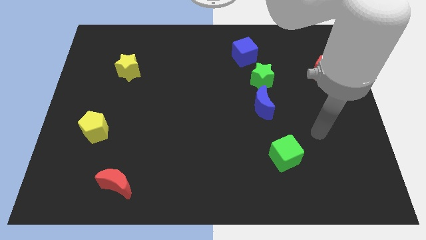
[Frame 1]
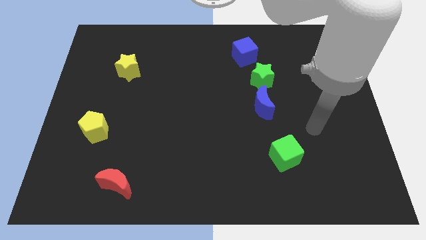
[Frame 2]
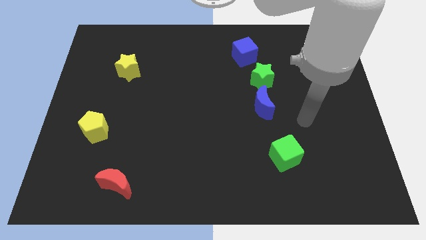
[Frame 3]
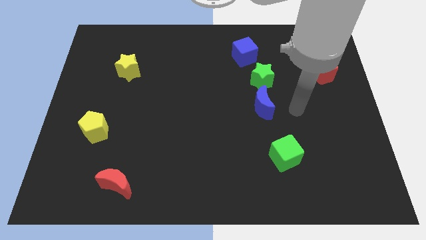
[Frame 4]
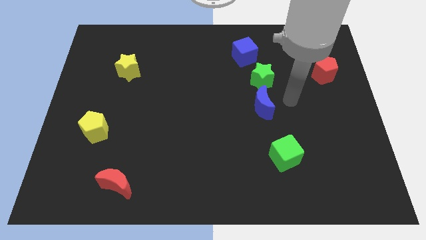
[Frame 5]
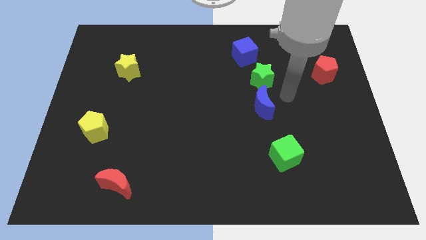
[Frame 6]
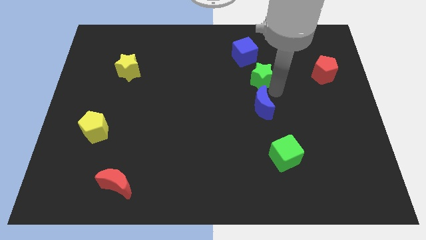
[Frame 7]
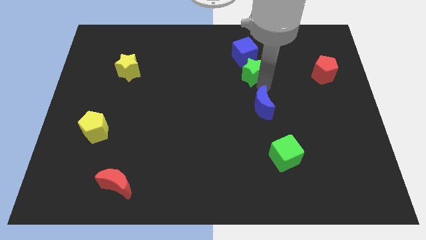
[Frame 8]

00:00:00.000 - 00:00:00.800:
separate the blue moon from the green star

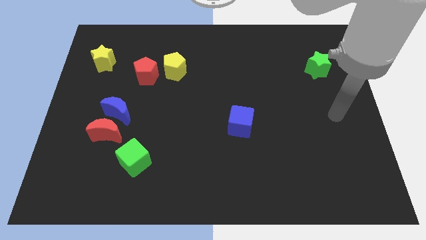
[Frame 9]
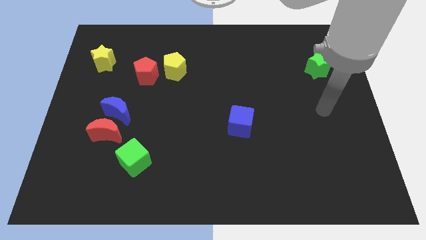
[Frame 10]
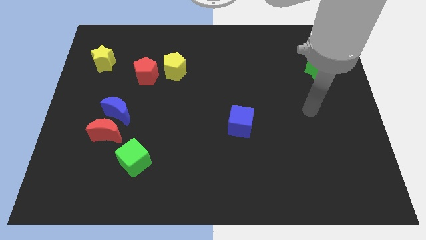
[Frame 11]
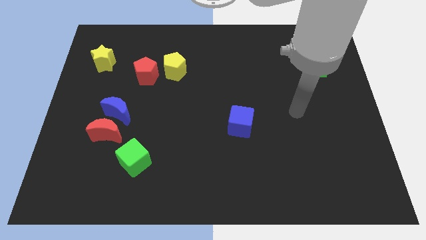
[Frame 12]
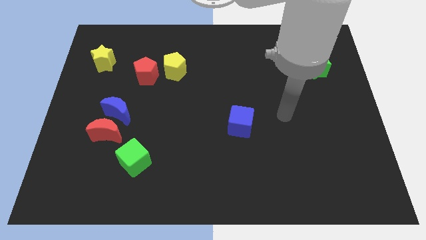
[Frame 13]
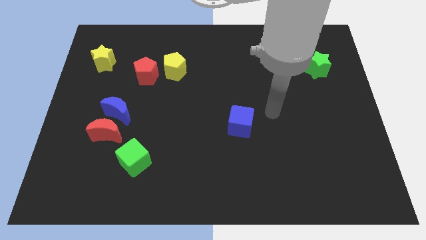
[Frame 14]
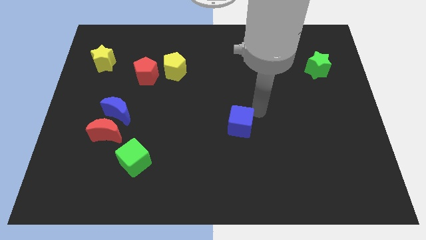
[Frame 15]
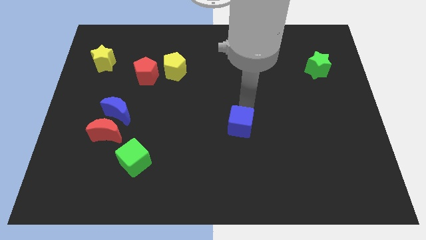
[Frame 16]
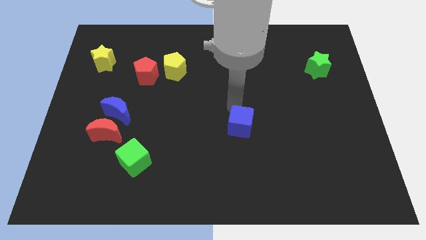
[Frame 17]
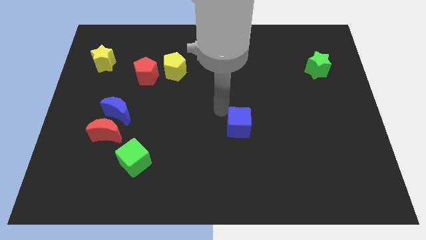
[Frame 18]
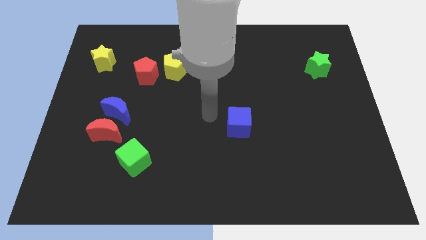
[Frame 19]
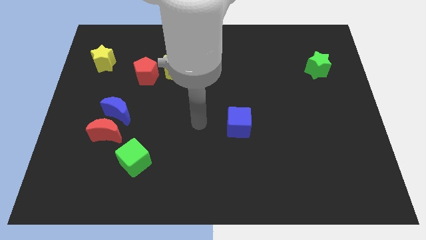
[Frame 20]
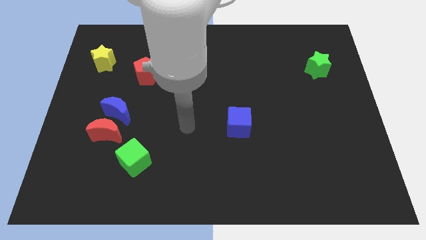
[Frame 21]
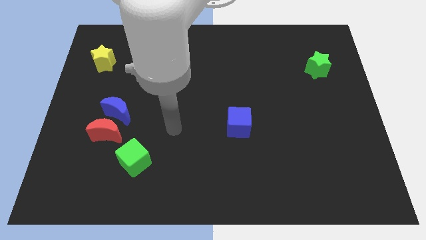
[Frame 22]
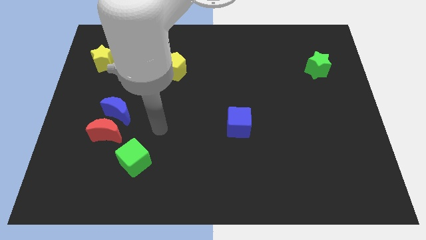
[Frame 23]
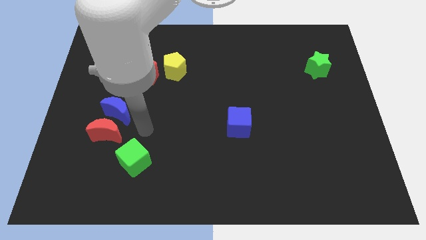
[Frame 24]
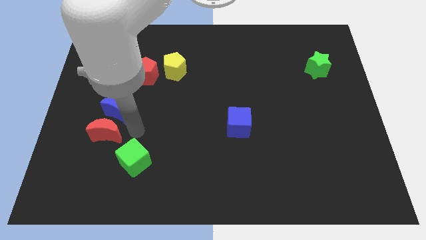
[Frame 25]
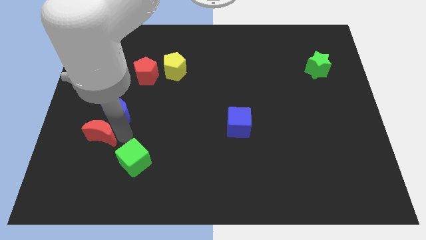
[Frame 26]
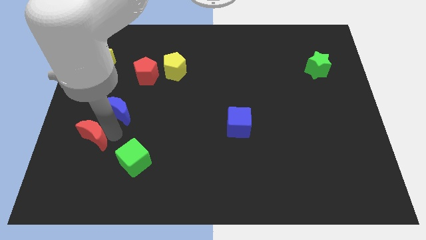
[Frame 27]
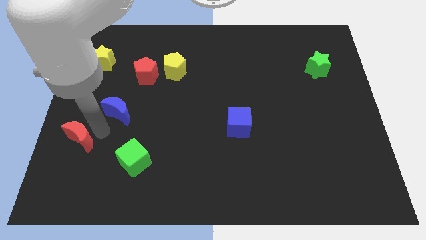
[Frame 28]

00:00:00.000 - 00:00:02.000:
pull the blue moon apart from the red moon

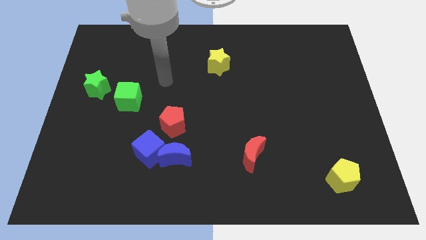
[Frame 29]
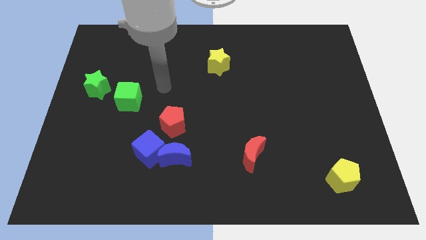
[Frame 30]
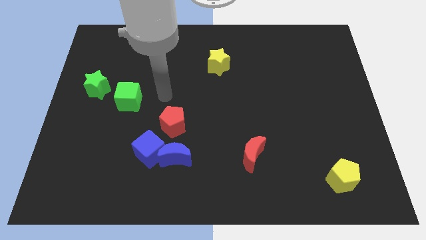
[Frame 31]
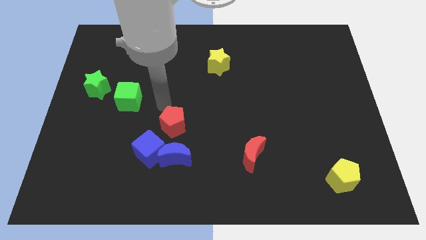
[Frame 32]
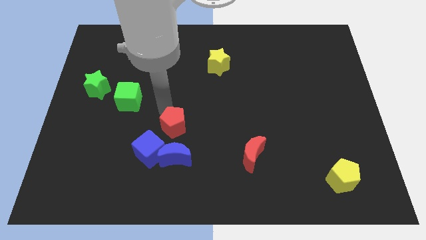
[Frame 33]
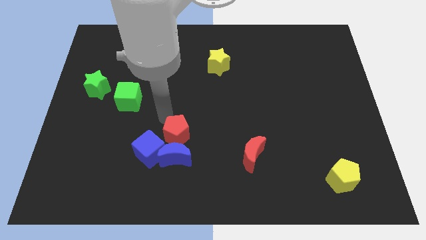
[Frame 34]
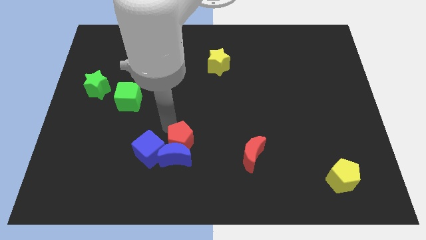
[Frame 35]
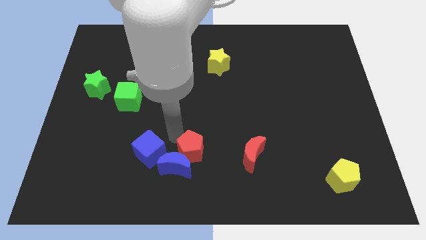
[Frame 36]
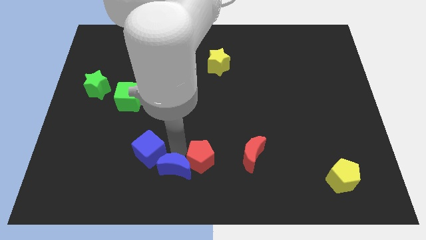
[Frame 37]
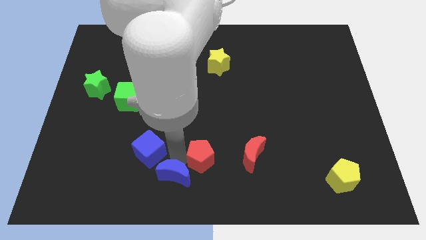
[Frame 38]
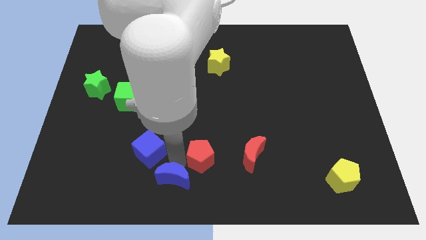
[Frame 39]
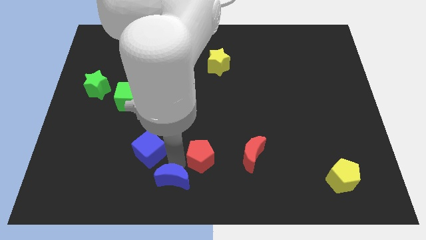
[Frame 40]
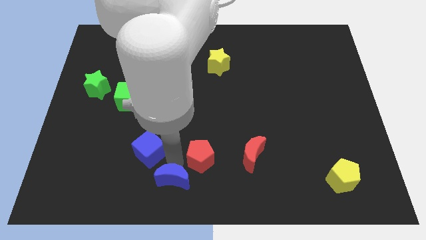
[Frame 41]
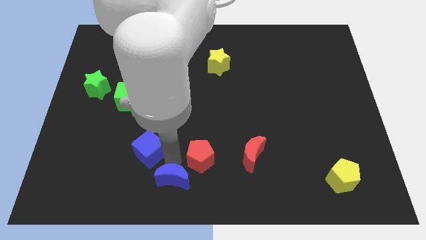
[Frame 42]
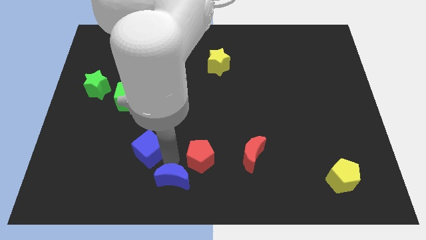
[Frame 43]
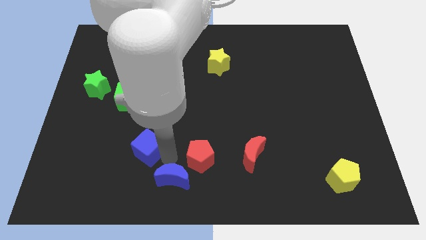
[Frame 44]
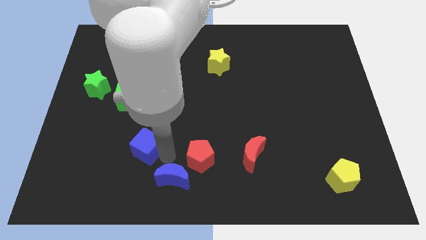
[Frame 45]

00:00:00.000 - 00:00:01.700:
move the blue cube away from the blue moon and red pentagon

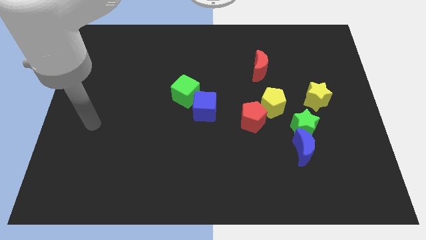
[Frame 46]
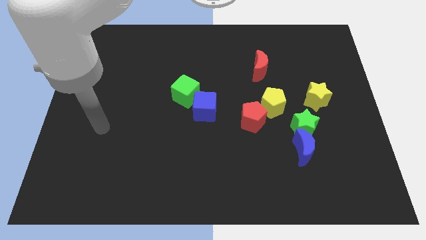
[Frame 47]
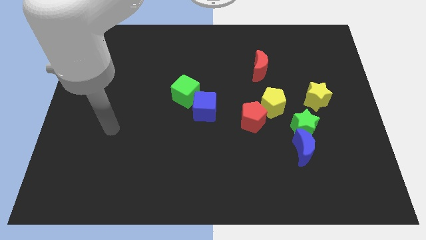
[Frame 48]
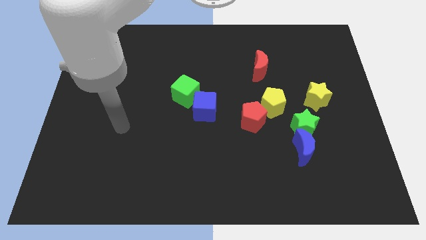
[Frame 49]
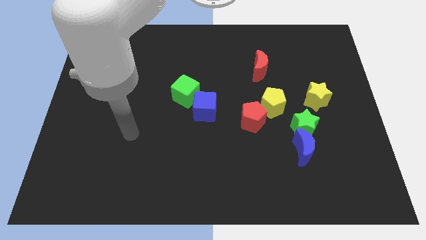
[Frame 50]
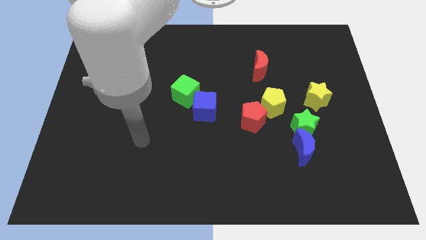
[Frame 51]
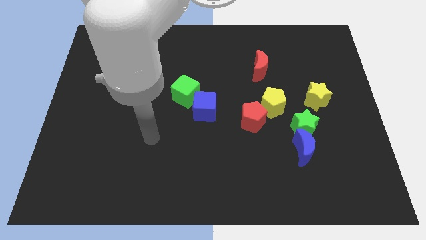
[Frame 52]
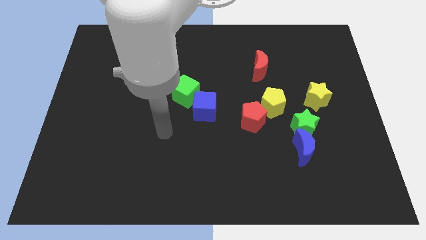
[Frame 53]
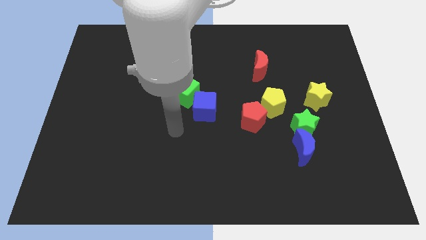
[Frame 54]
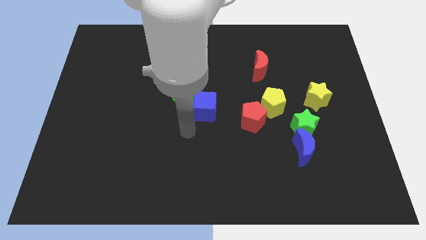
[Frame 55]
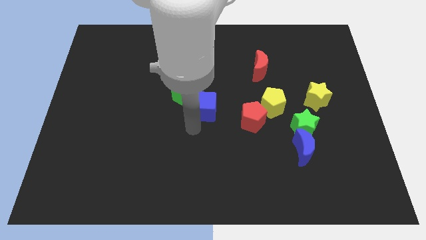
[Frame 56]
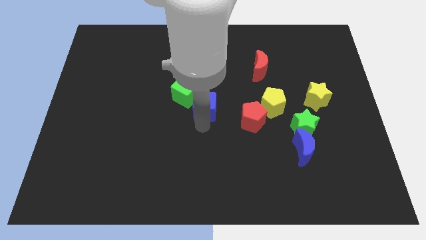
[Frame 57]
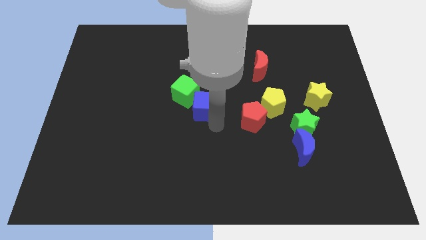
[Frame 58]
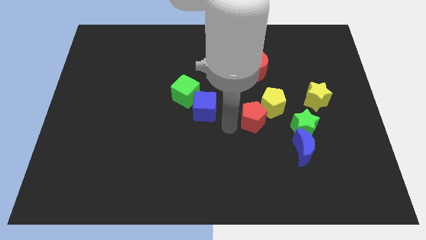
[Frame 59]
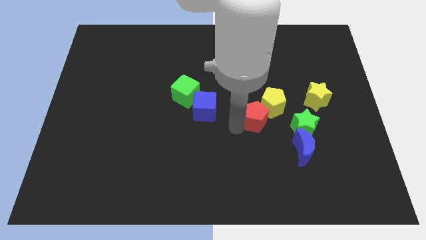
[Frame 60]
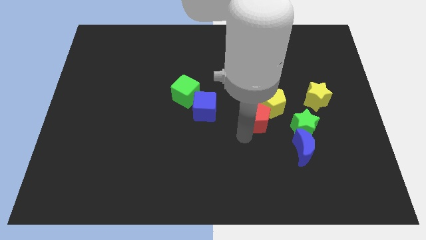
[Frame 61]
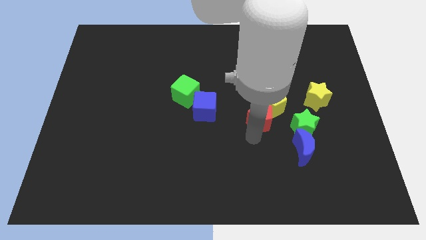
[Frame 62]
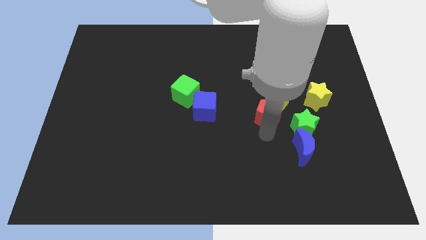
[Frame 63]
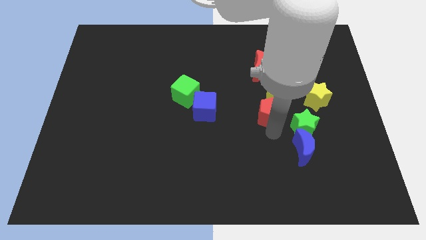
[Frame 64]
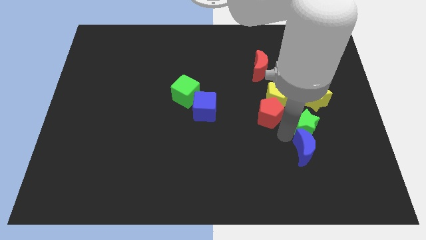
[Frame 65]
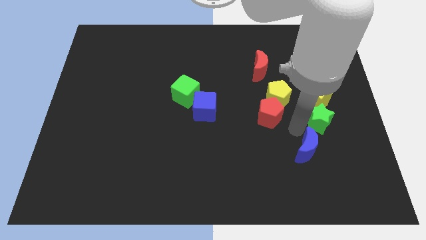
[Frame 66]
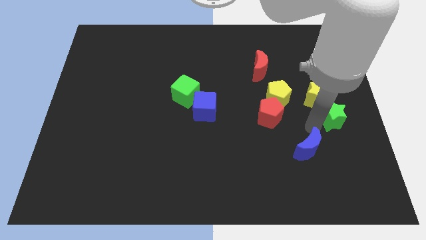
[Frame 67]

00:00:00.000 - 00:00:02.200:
pull the blue moon apart from the green star

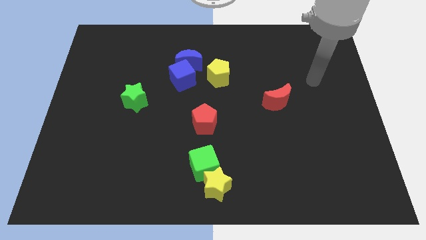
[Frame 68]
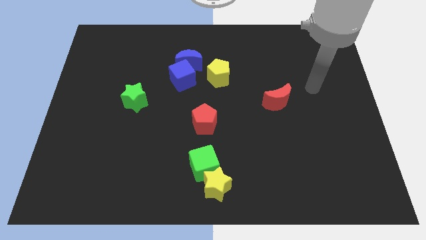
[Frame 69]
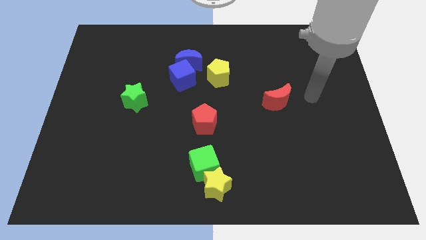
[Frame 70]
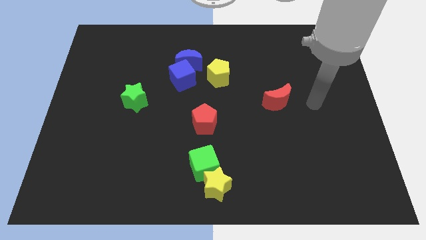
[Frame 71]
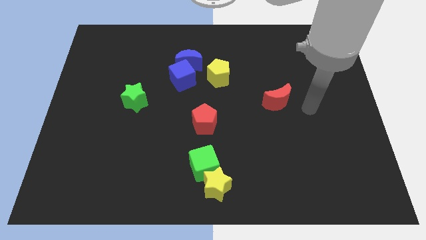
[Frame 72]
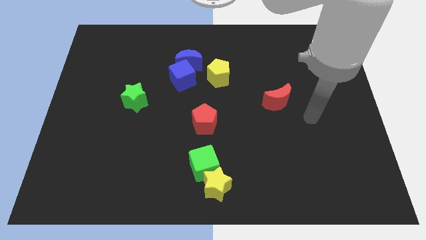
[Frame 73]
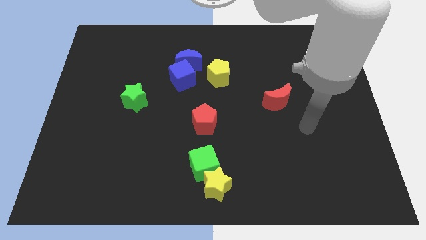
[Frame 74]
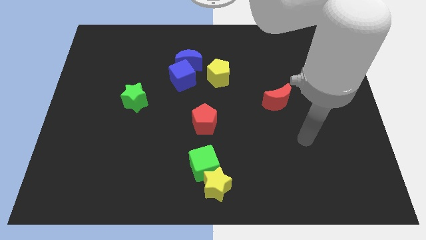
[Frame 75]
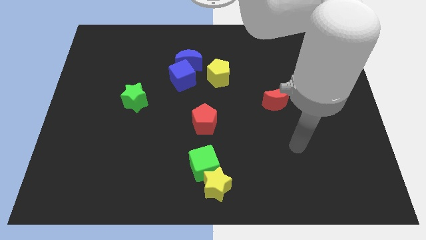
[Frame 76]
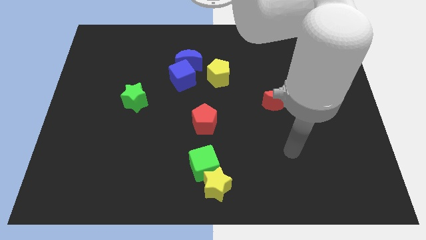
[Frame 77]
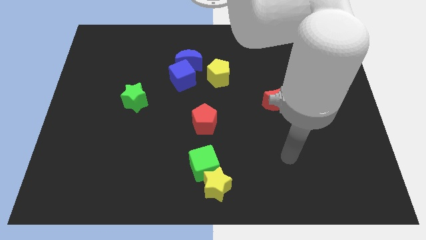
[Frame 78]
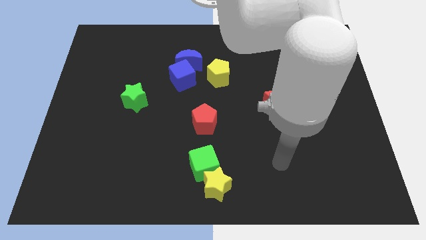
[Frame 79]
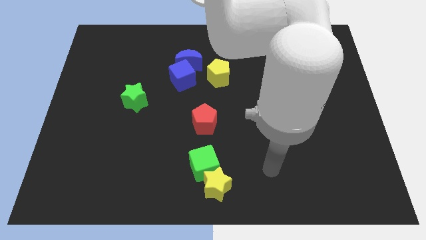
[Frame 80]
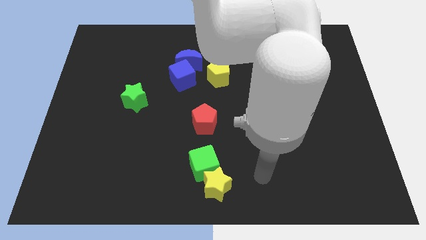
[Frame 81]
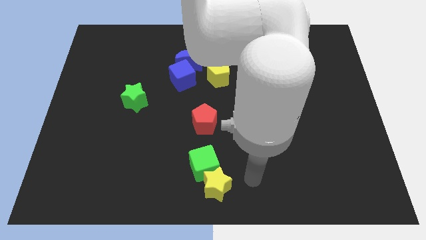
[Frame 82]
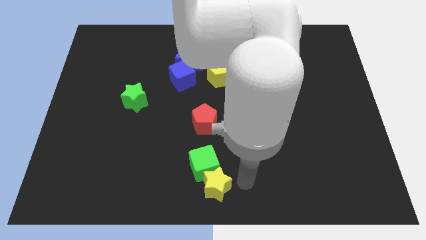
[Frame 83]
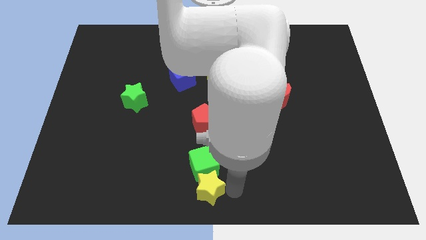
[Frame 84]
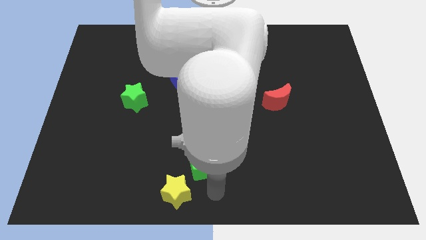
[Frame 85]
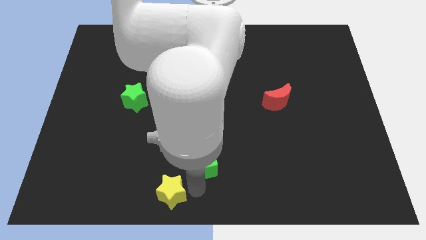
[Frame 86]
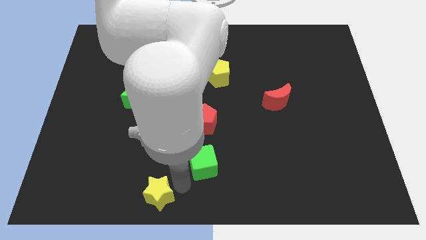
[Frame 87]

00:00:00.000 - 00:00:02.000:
pull the green cube apart from the yellow star

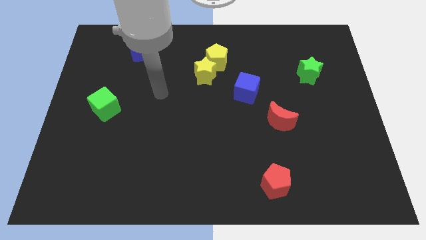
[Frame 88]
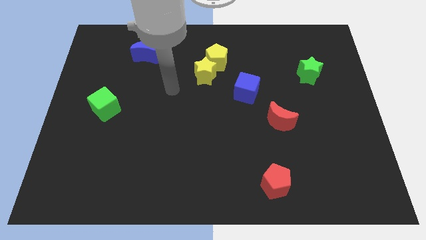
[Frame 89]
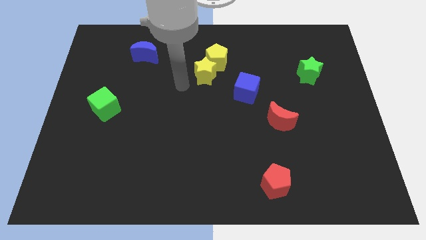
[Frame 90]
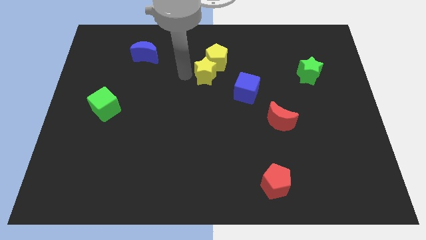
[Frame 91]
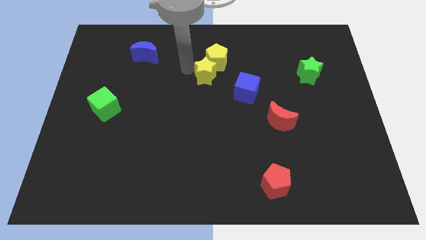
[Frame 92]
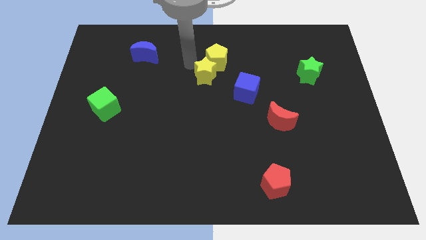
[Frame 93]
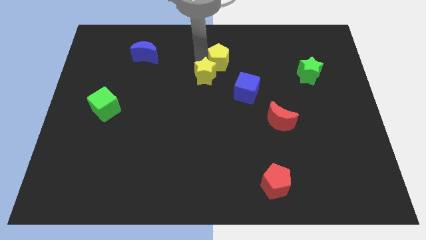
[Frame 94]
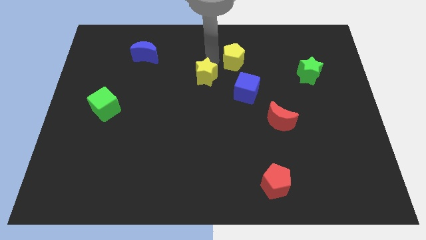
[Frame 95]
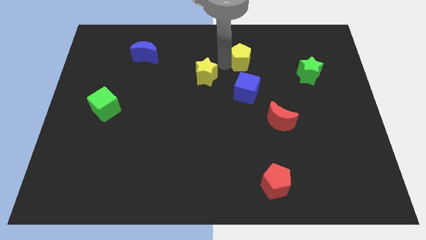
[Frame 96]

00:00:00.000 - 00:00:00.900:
move the yellow star away from the yellow pentagon
